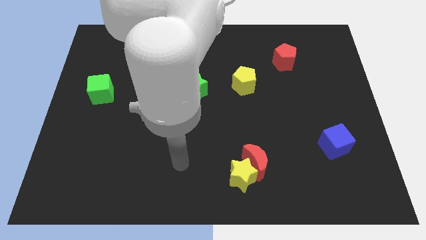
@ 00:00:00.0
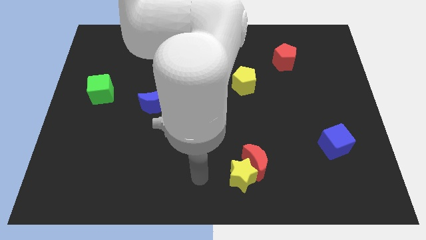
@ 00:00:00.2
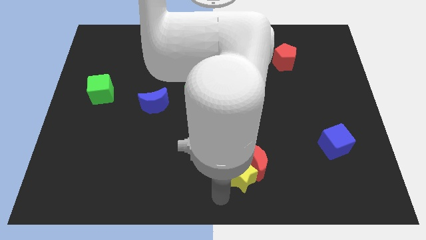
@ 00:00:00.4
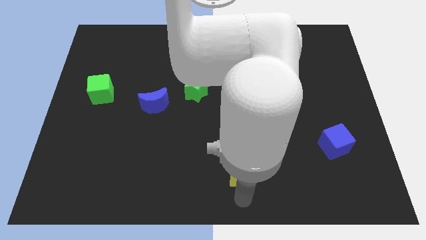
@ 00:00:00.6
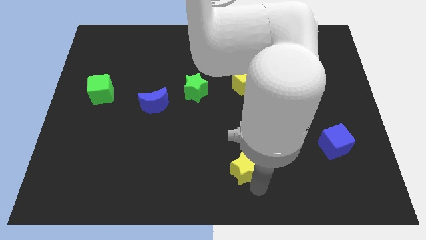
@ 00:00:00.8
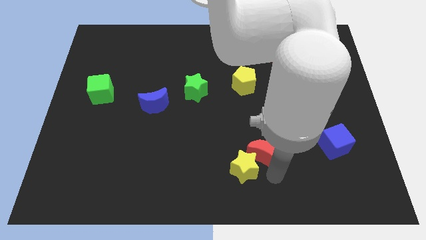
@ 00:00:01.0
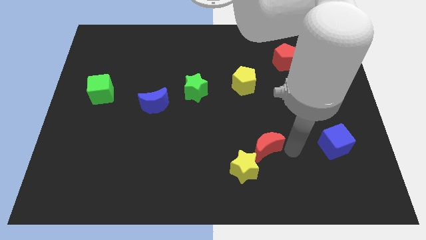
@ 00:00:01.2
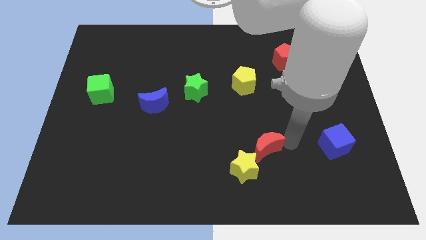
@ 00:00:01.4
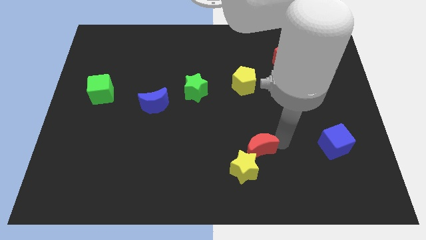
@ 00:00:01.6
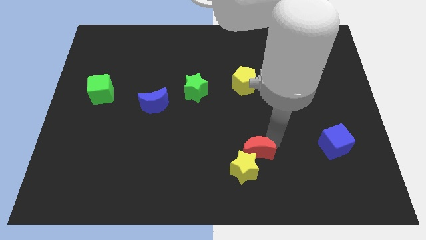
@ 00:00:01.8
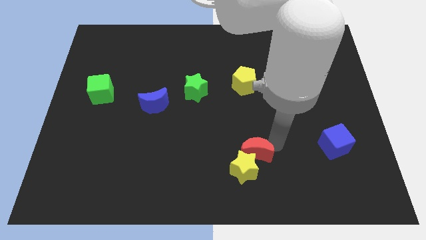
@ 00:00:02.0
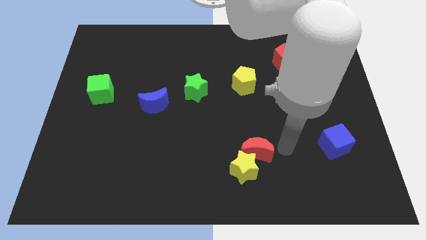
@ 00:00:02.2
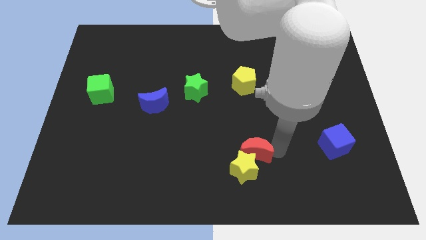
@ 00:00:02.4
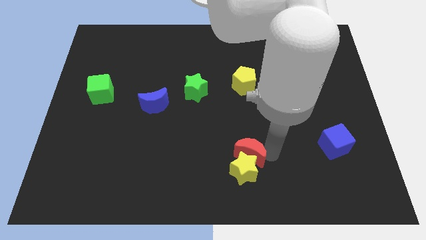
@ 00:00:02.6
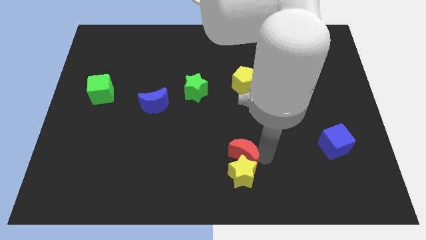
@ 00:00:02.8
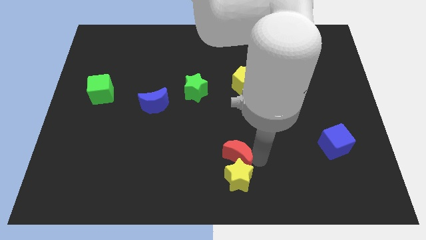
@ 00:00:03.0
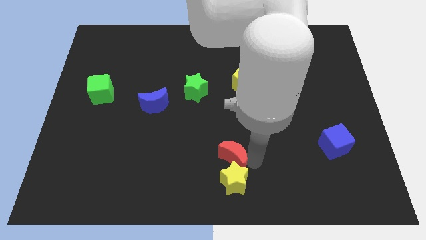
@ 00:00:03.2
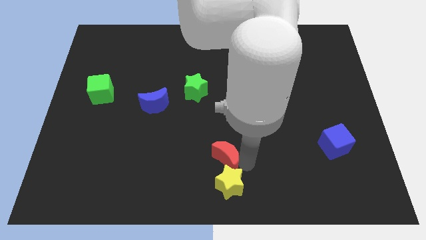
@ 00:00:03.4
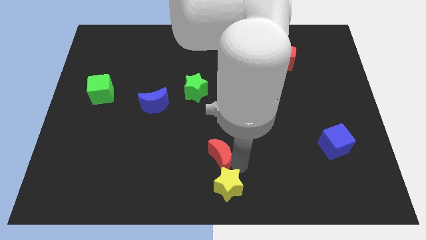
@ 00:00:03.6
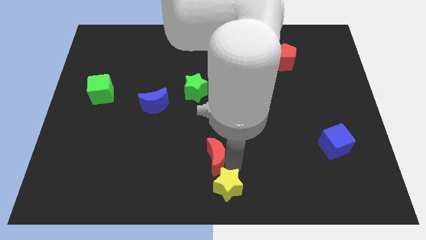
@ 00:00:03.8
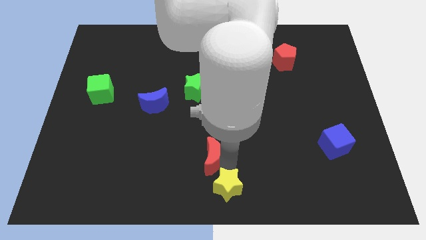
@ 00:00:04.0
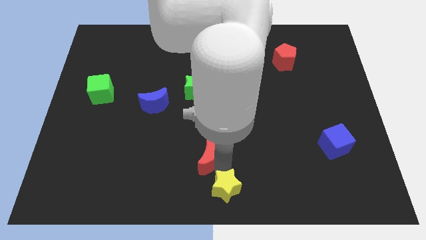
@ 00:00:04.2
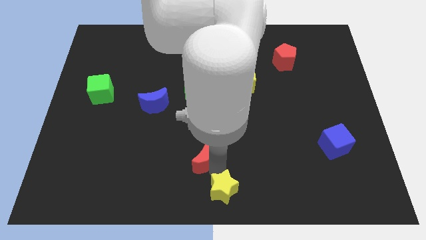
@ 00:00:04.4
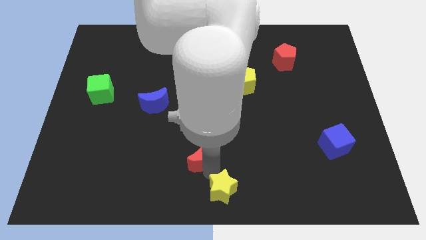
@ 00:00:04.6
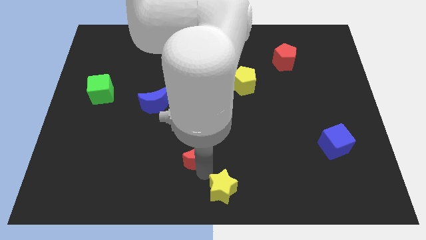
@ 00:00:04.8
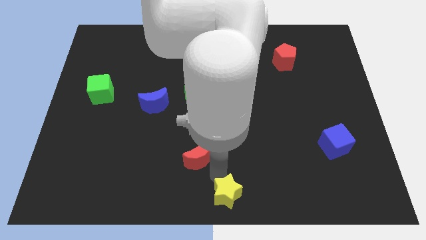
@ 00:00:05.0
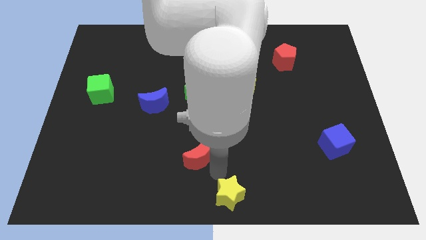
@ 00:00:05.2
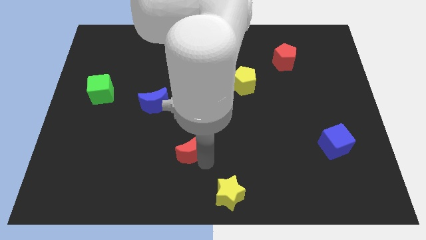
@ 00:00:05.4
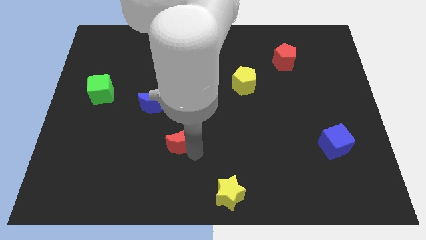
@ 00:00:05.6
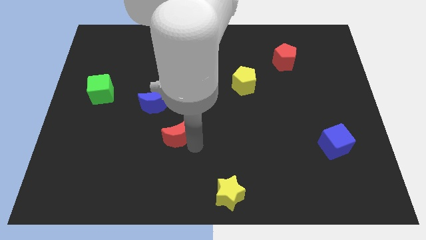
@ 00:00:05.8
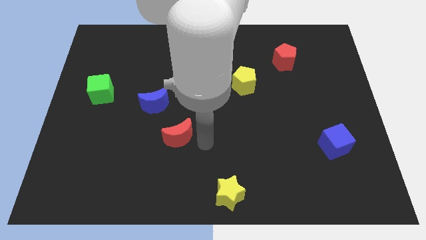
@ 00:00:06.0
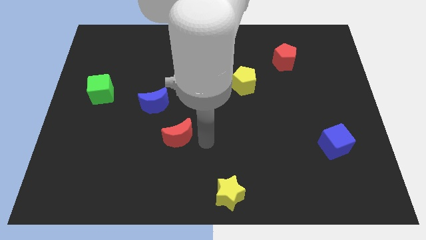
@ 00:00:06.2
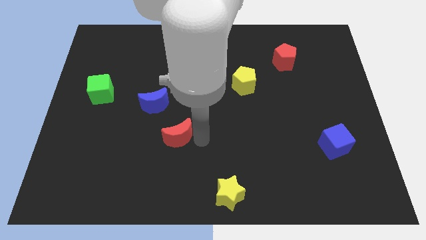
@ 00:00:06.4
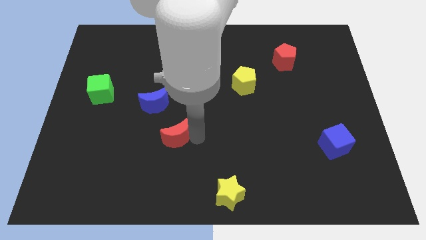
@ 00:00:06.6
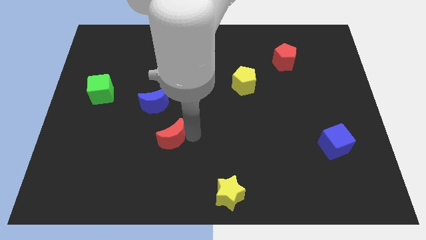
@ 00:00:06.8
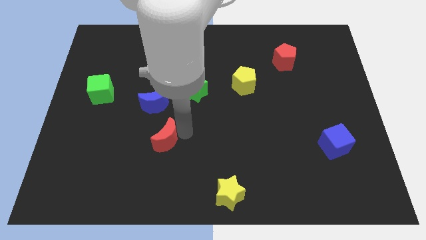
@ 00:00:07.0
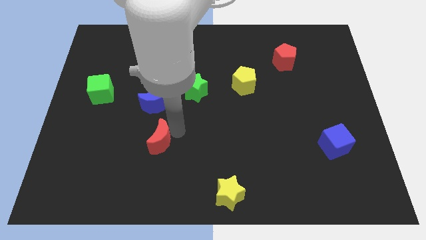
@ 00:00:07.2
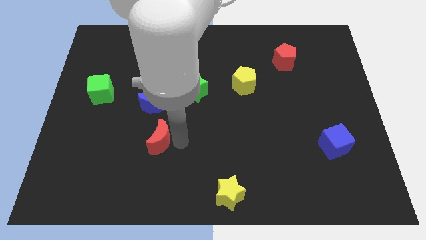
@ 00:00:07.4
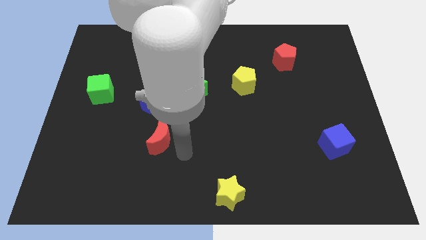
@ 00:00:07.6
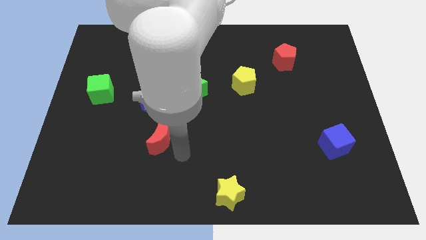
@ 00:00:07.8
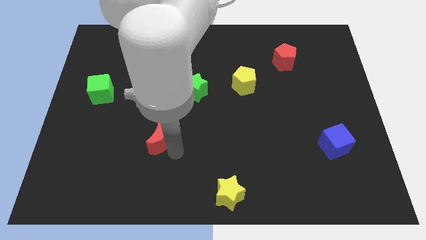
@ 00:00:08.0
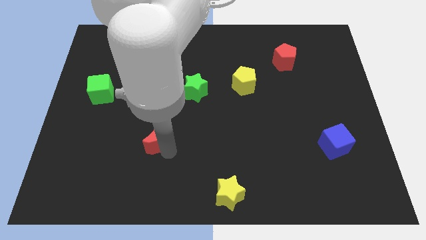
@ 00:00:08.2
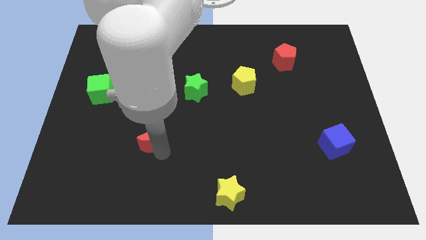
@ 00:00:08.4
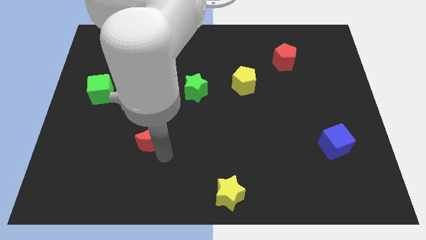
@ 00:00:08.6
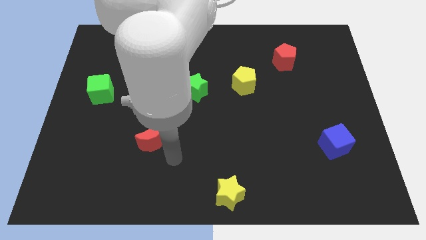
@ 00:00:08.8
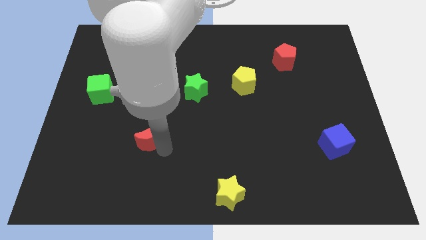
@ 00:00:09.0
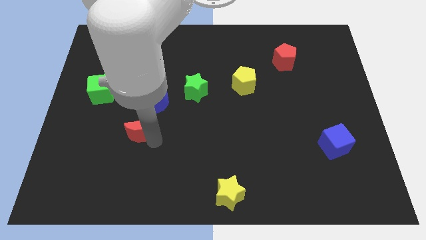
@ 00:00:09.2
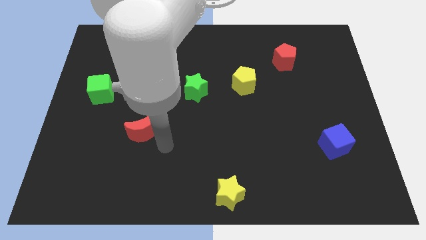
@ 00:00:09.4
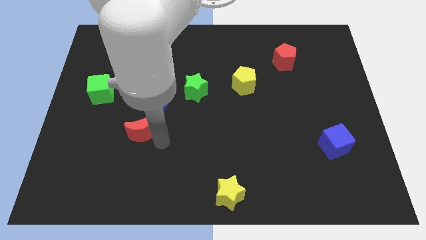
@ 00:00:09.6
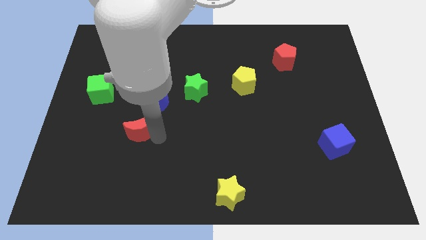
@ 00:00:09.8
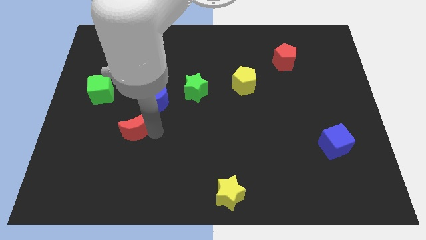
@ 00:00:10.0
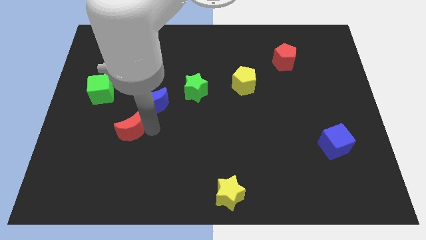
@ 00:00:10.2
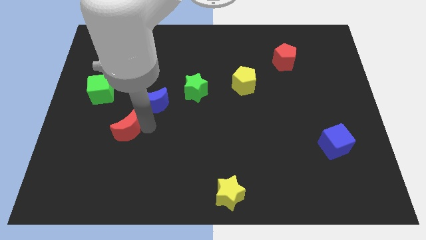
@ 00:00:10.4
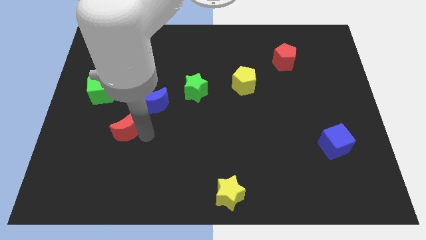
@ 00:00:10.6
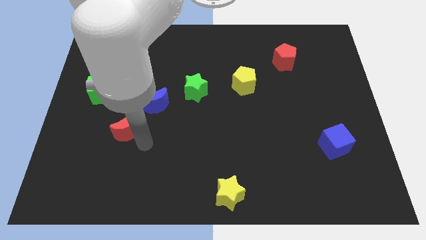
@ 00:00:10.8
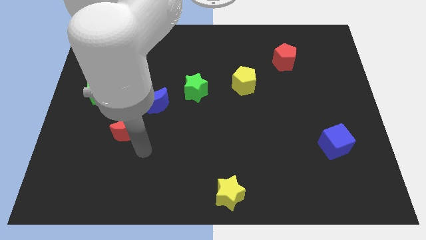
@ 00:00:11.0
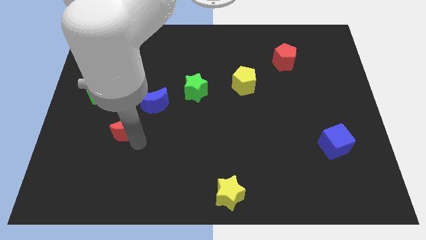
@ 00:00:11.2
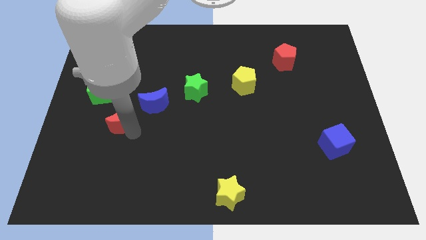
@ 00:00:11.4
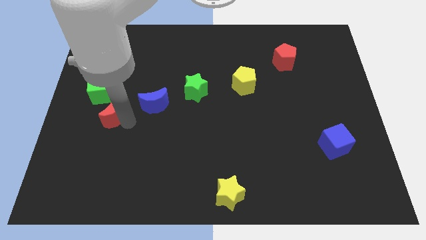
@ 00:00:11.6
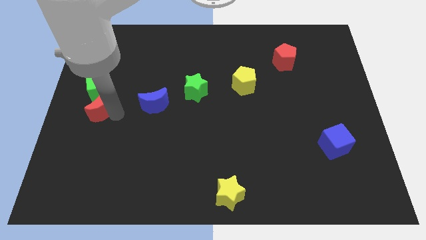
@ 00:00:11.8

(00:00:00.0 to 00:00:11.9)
move the red moon to the left side of the board

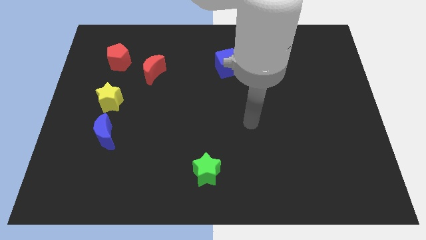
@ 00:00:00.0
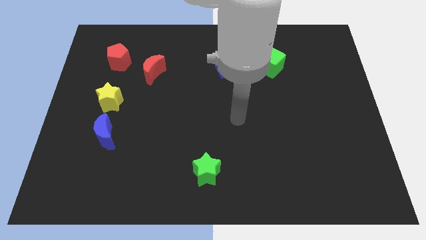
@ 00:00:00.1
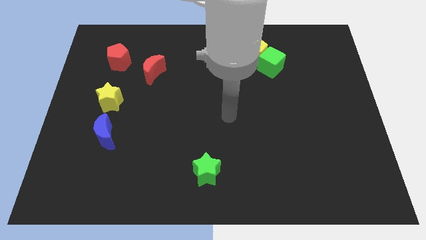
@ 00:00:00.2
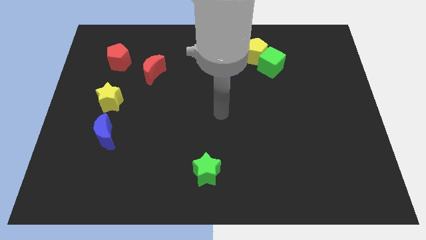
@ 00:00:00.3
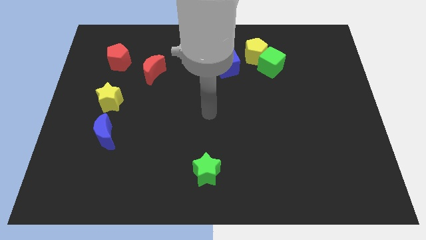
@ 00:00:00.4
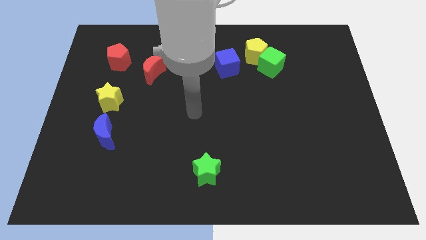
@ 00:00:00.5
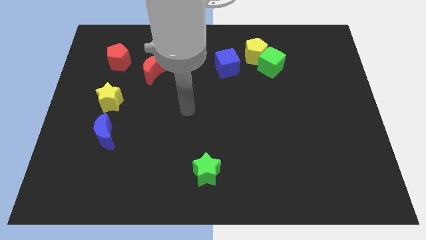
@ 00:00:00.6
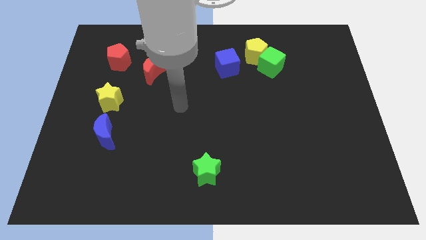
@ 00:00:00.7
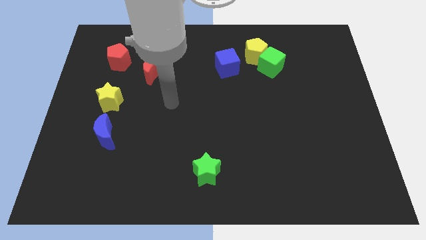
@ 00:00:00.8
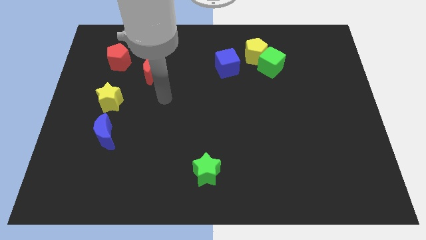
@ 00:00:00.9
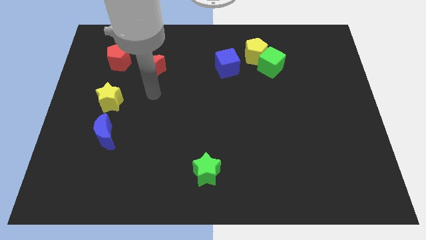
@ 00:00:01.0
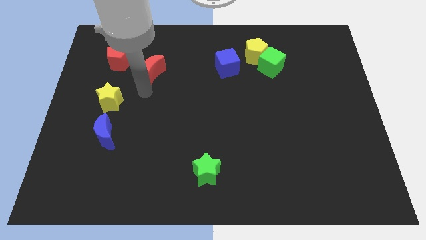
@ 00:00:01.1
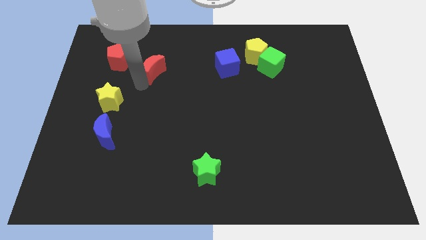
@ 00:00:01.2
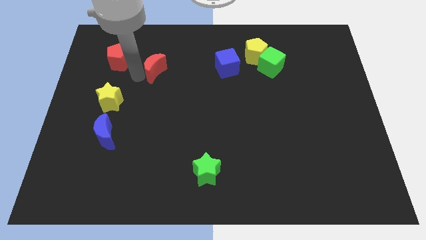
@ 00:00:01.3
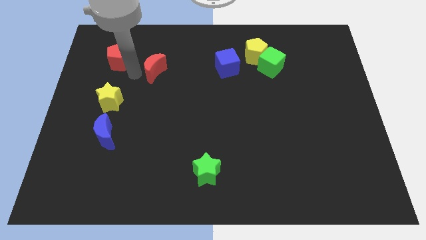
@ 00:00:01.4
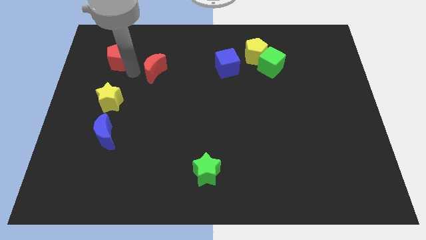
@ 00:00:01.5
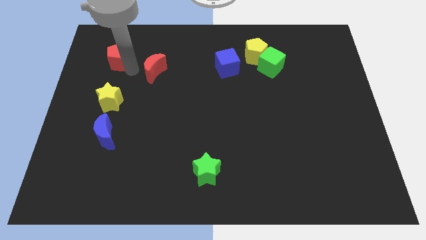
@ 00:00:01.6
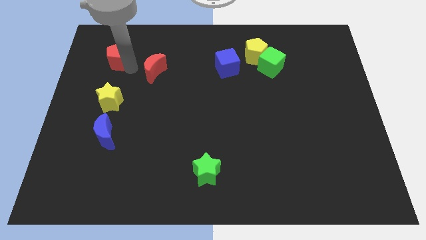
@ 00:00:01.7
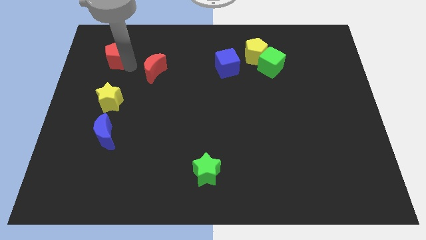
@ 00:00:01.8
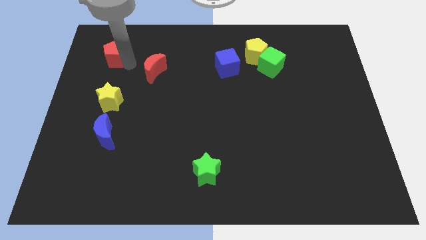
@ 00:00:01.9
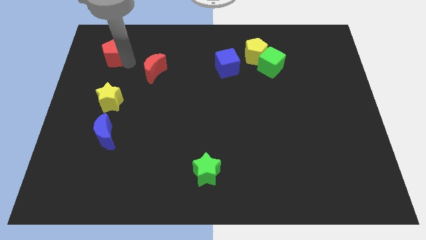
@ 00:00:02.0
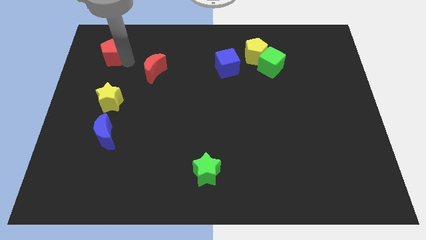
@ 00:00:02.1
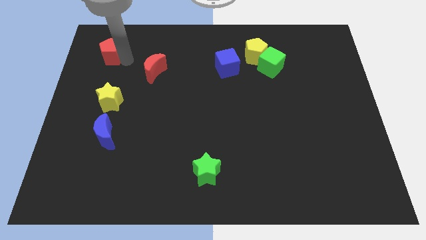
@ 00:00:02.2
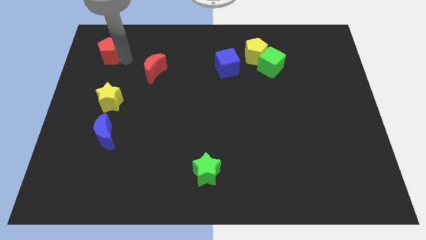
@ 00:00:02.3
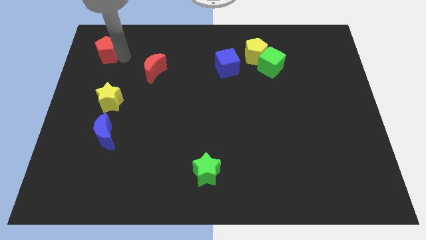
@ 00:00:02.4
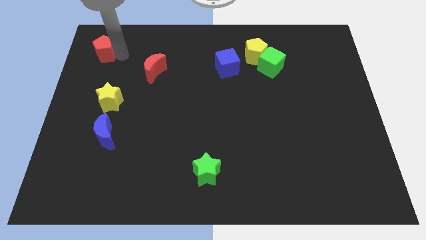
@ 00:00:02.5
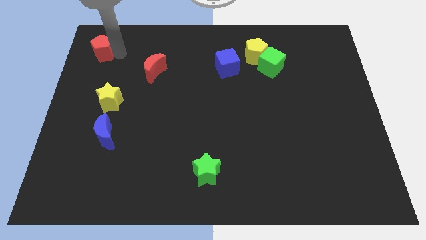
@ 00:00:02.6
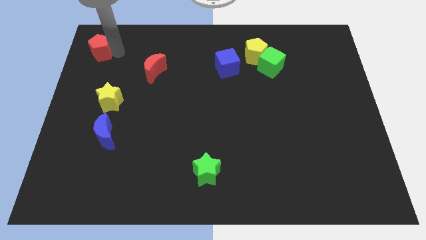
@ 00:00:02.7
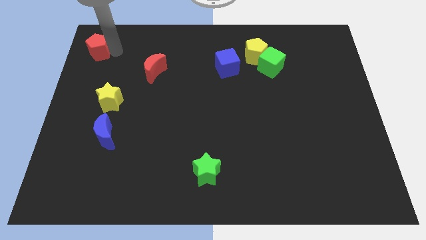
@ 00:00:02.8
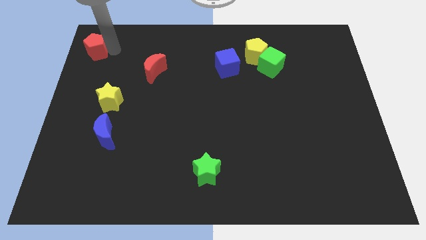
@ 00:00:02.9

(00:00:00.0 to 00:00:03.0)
move the red pentagon to the top left
